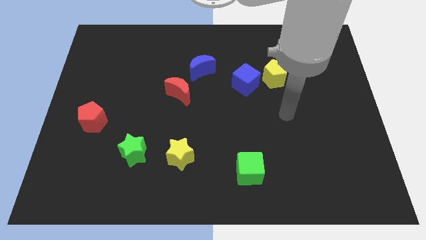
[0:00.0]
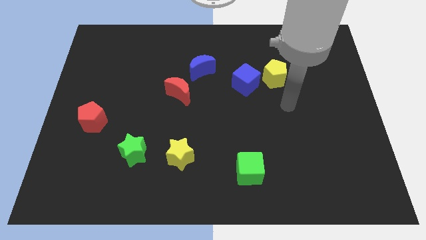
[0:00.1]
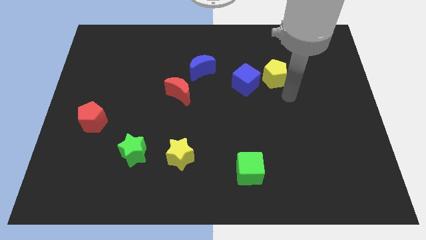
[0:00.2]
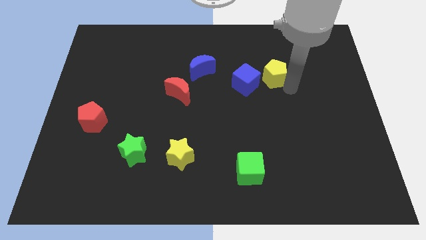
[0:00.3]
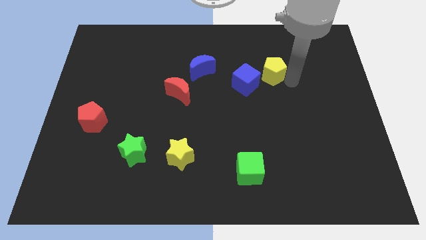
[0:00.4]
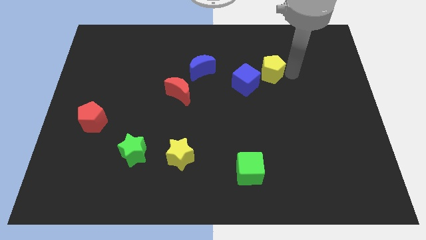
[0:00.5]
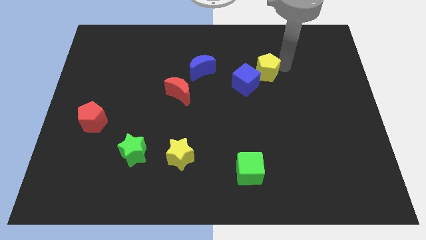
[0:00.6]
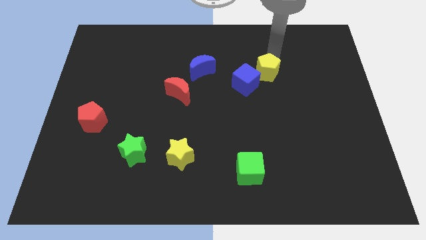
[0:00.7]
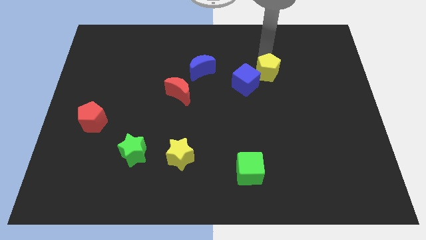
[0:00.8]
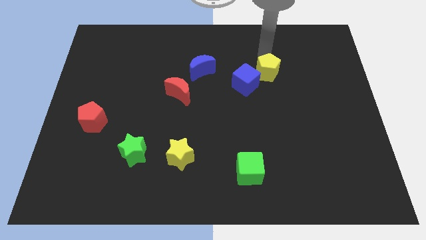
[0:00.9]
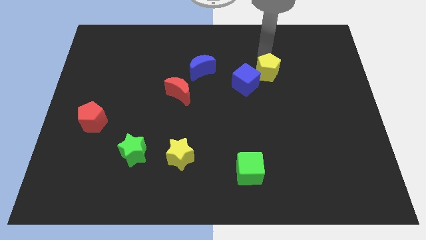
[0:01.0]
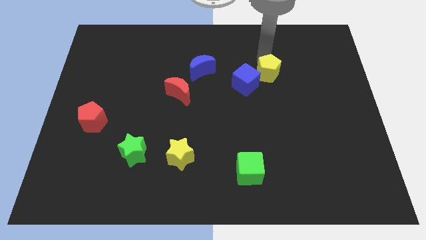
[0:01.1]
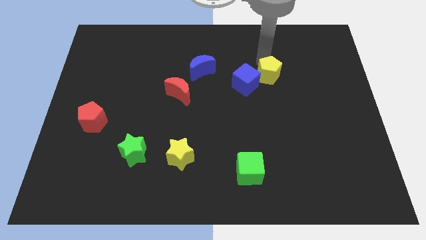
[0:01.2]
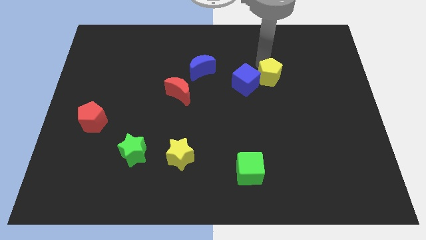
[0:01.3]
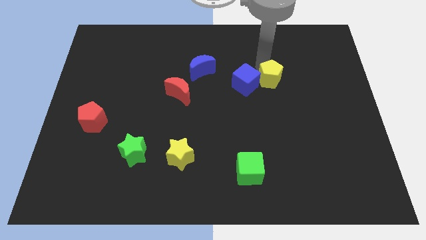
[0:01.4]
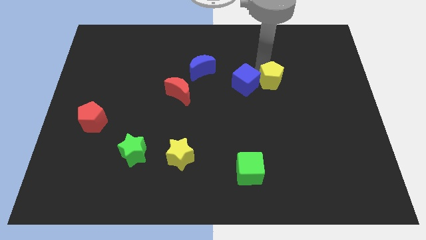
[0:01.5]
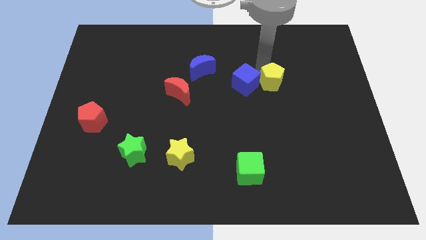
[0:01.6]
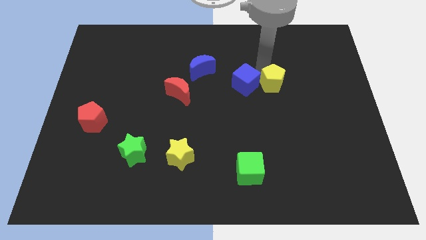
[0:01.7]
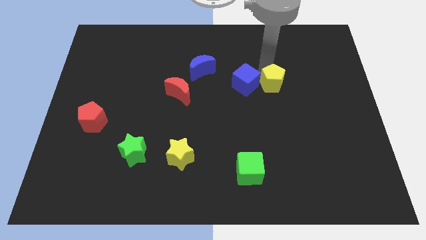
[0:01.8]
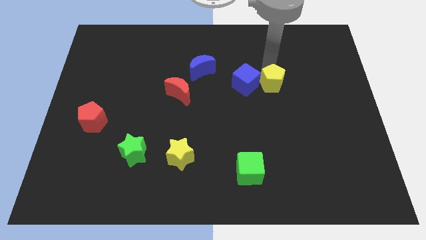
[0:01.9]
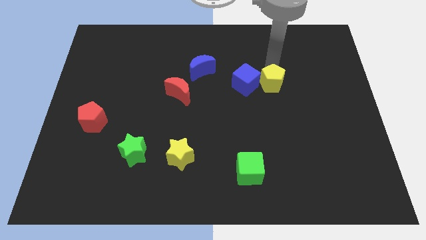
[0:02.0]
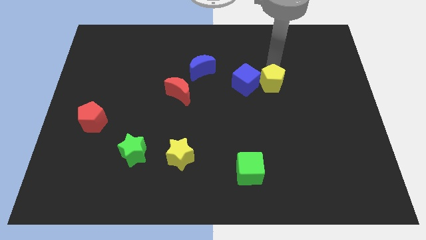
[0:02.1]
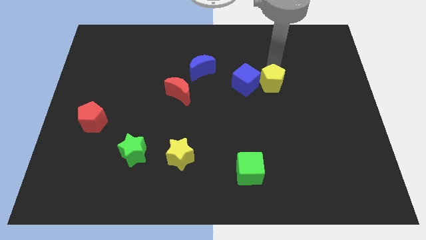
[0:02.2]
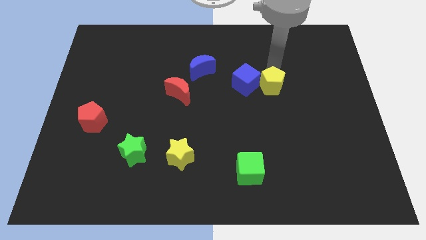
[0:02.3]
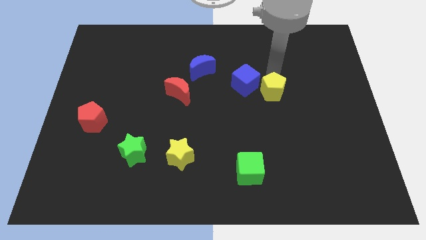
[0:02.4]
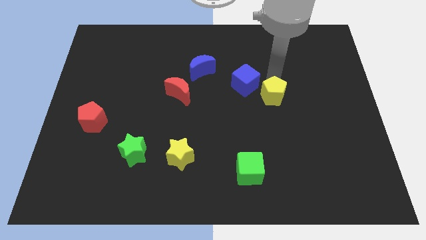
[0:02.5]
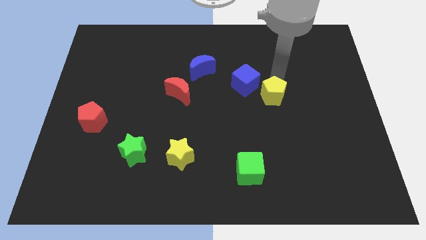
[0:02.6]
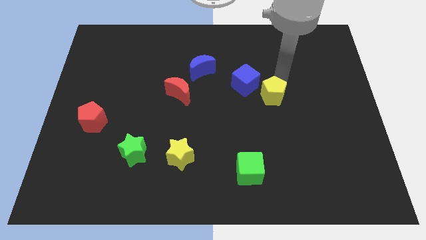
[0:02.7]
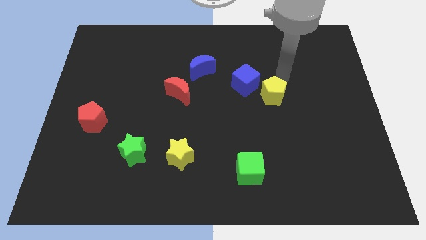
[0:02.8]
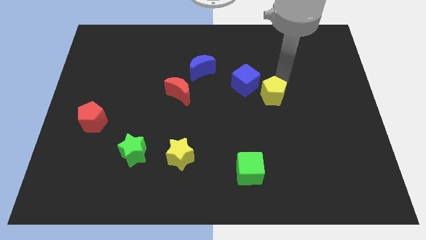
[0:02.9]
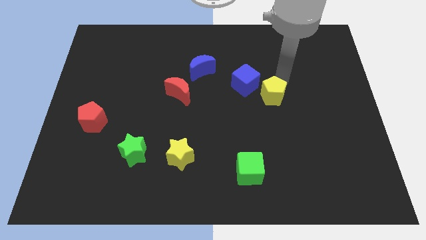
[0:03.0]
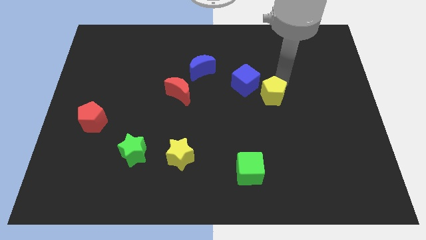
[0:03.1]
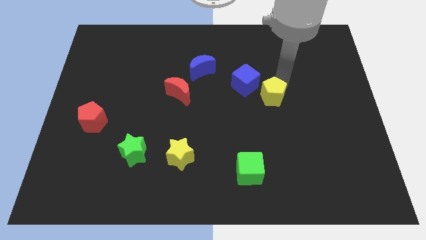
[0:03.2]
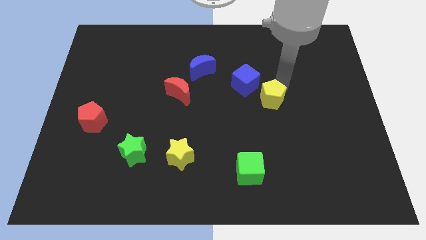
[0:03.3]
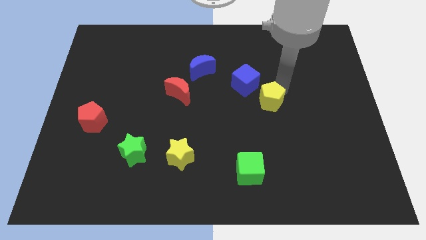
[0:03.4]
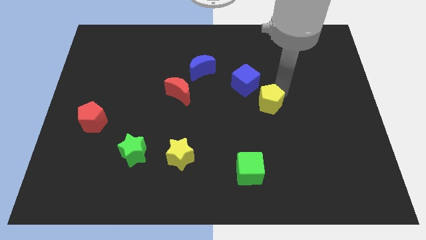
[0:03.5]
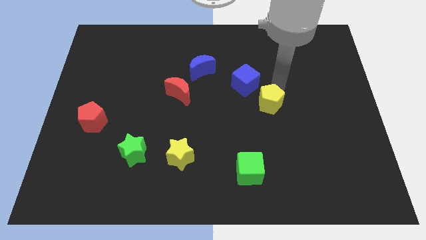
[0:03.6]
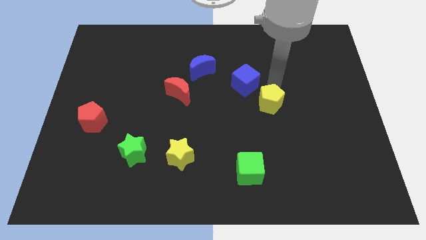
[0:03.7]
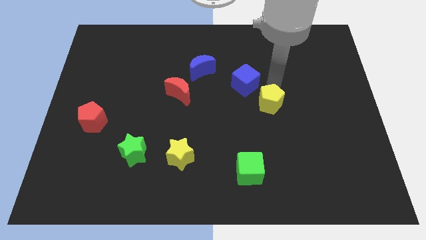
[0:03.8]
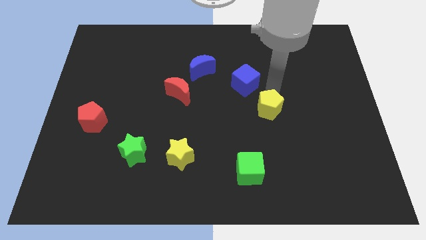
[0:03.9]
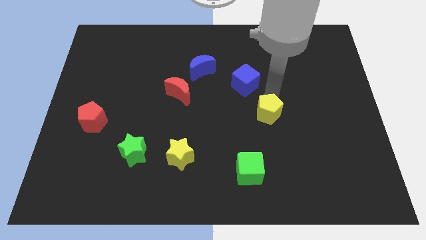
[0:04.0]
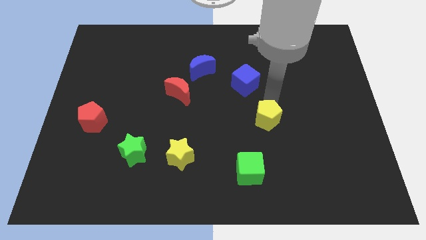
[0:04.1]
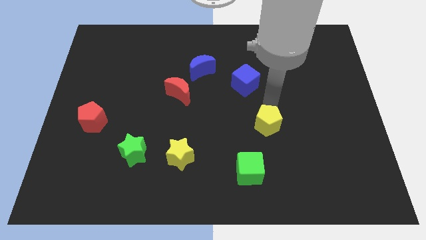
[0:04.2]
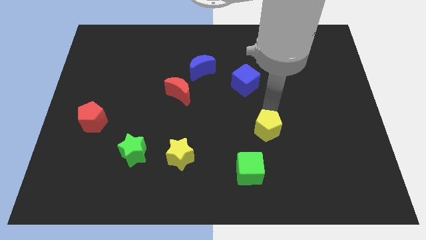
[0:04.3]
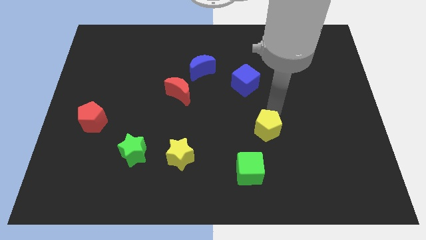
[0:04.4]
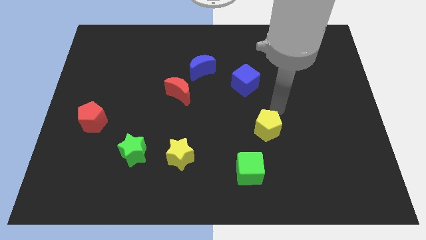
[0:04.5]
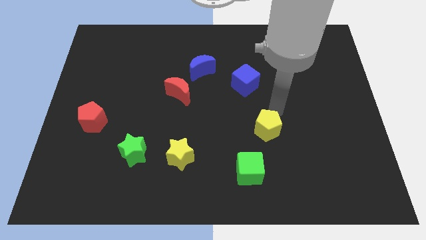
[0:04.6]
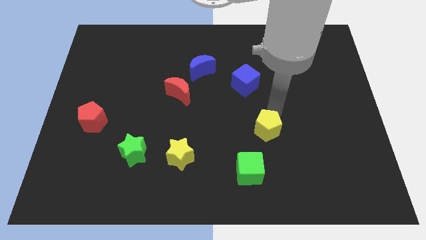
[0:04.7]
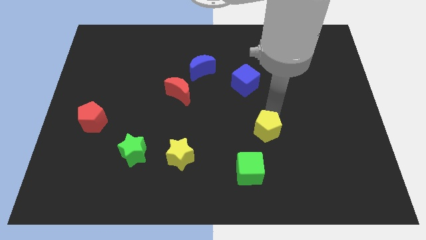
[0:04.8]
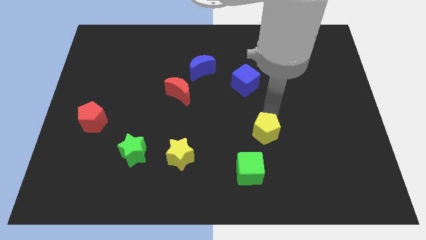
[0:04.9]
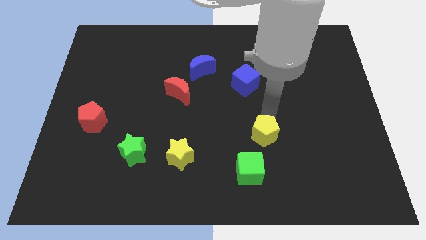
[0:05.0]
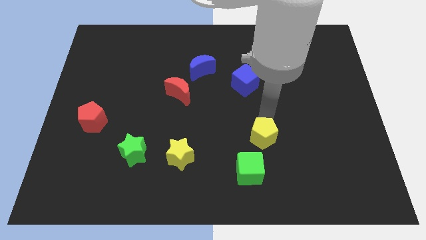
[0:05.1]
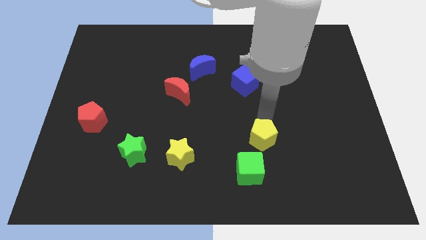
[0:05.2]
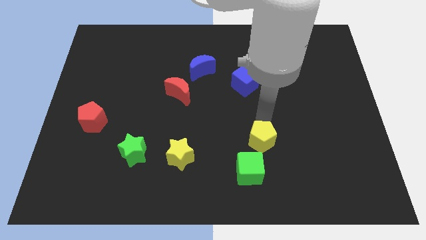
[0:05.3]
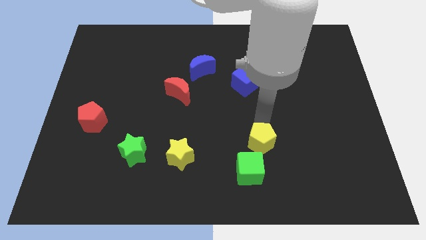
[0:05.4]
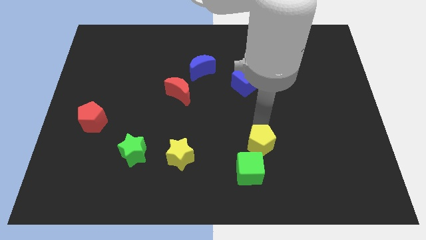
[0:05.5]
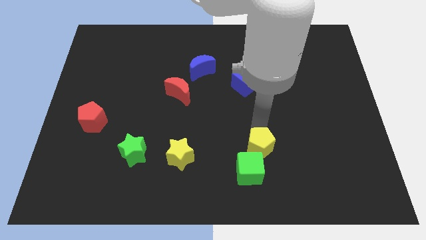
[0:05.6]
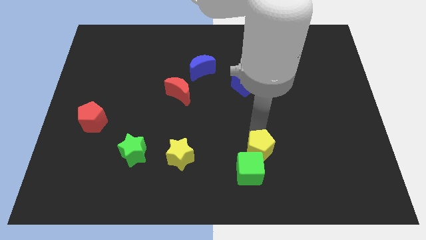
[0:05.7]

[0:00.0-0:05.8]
slide the yellow pentagon next to the green cube

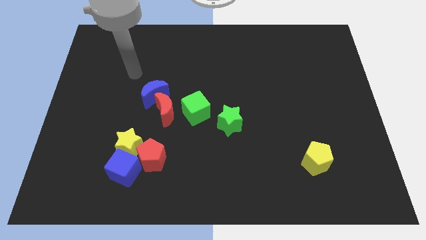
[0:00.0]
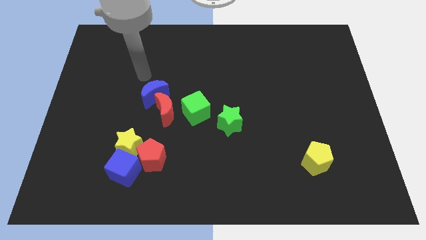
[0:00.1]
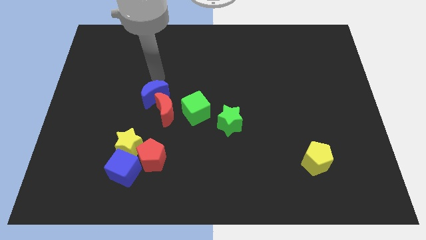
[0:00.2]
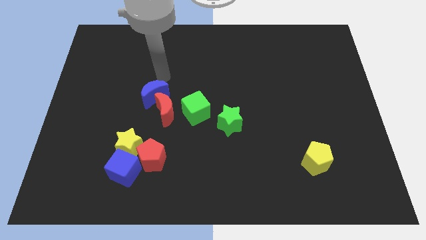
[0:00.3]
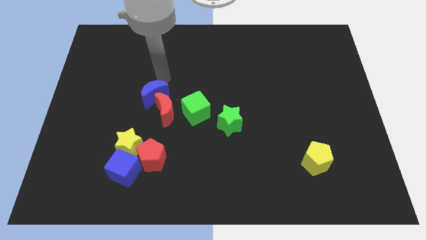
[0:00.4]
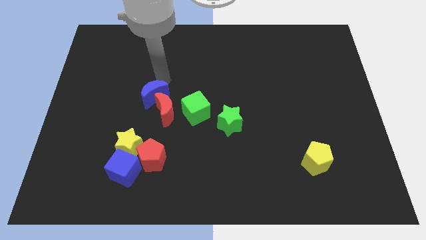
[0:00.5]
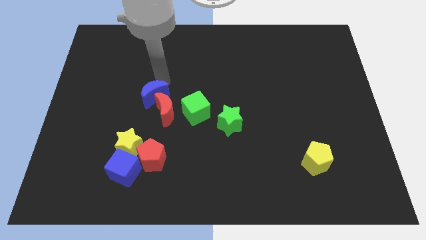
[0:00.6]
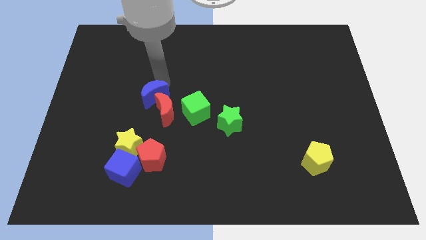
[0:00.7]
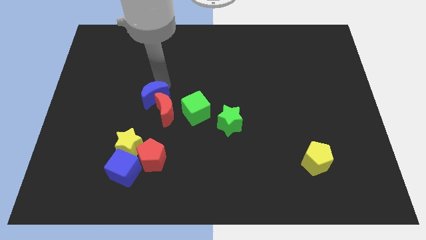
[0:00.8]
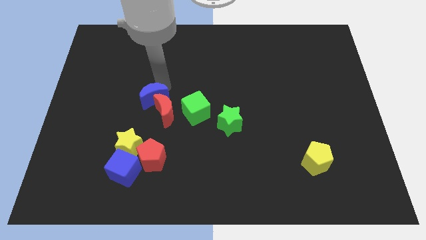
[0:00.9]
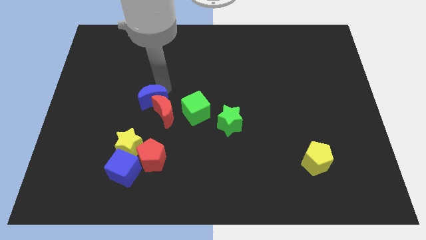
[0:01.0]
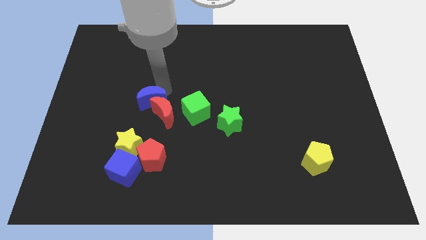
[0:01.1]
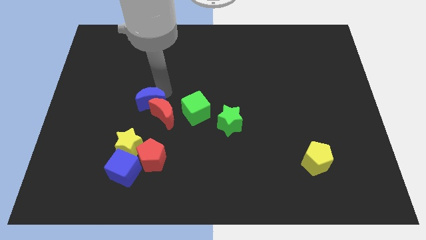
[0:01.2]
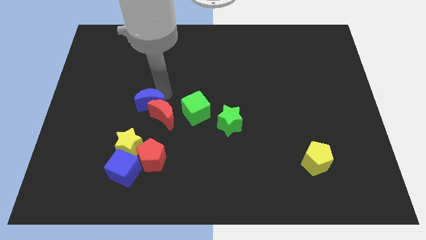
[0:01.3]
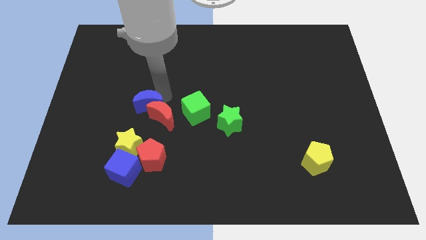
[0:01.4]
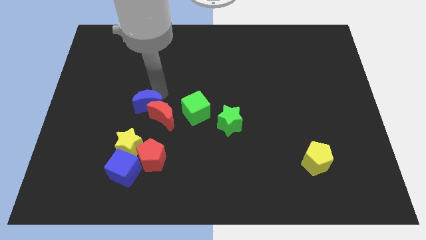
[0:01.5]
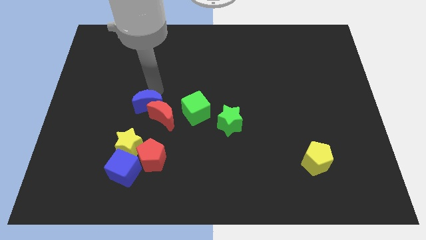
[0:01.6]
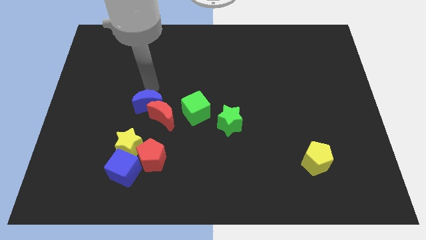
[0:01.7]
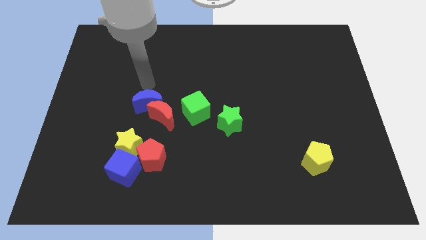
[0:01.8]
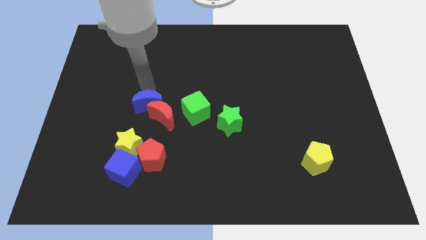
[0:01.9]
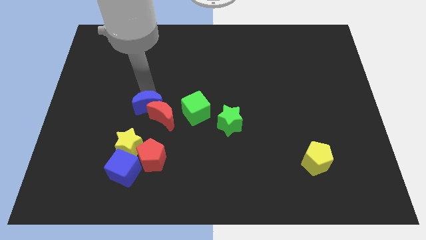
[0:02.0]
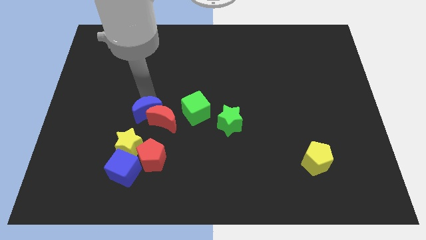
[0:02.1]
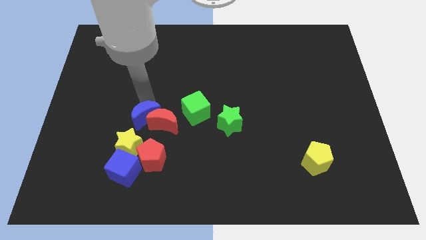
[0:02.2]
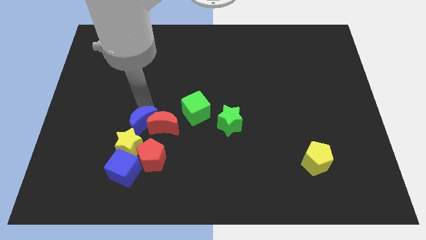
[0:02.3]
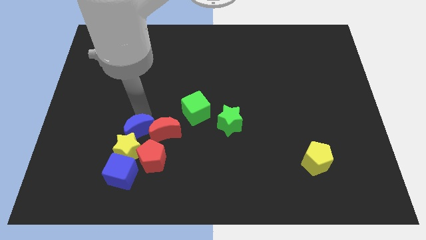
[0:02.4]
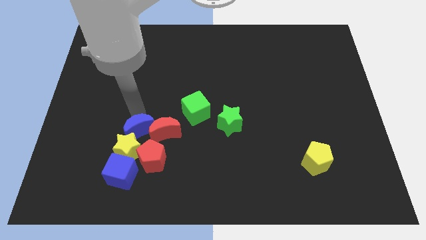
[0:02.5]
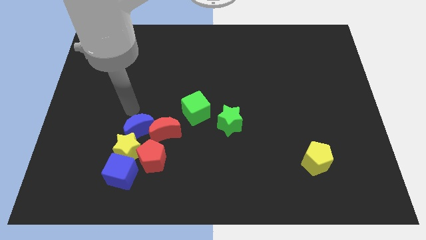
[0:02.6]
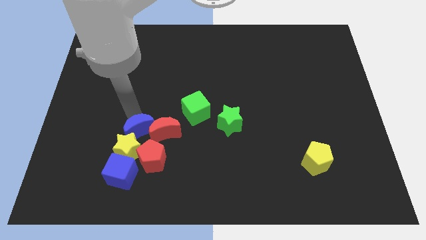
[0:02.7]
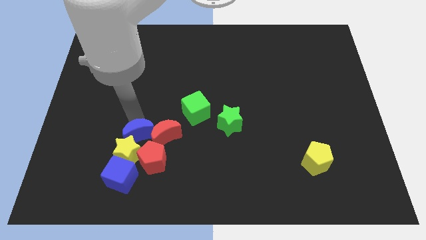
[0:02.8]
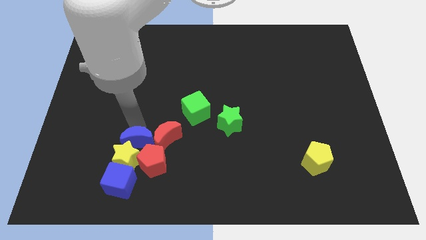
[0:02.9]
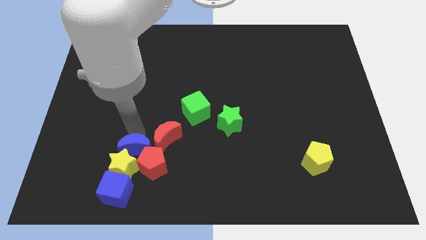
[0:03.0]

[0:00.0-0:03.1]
push the blue moon towards the red pentagon
